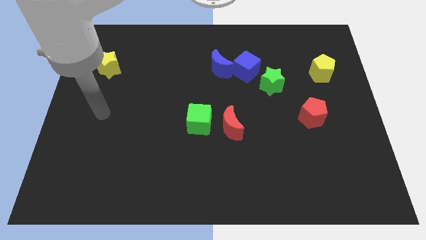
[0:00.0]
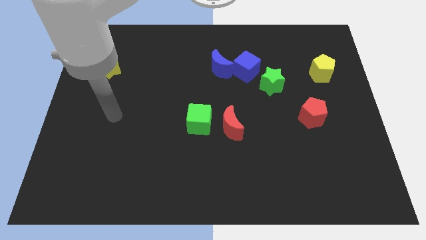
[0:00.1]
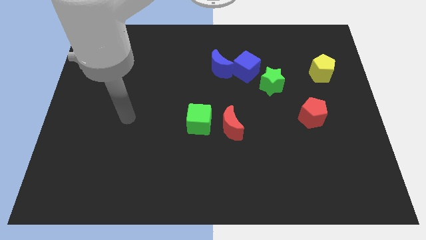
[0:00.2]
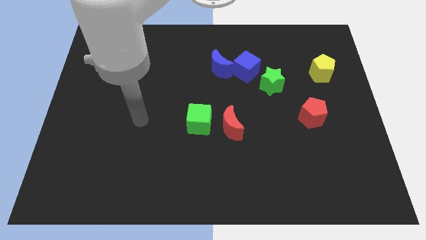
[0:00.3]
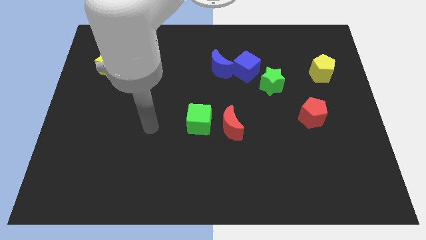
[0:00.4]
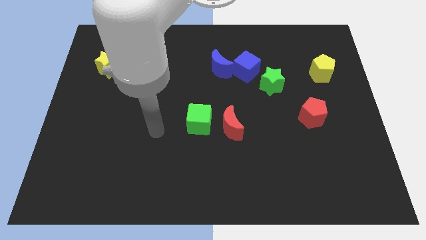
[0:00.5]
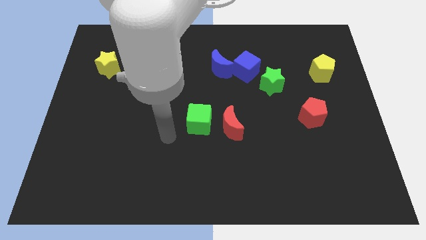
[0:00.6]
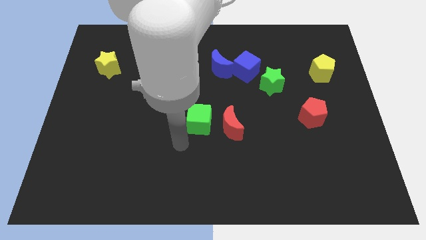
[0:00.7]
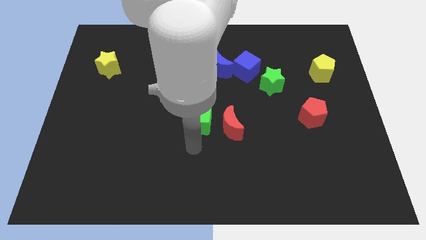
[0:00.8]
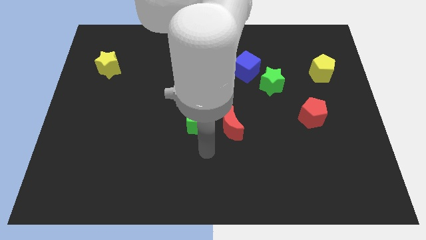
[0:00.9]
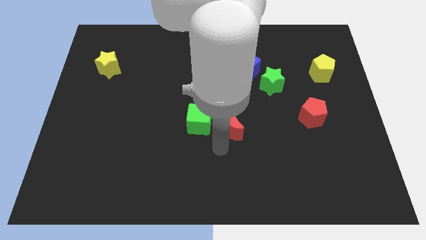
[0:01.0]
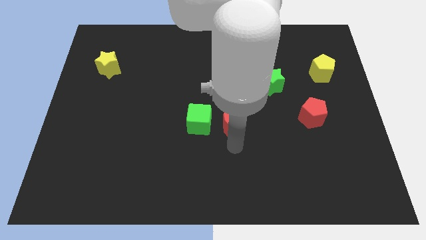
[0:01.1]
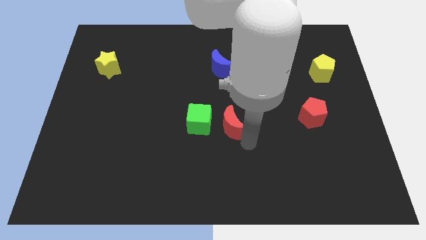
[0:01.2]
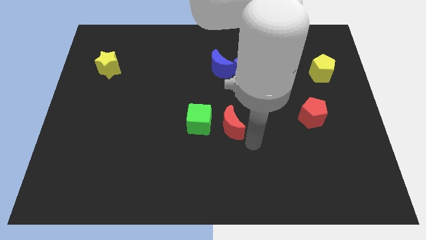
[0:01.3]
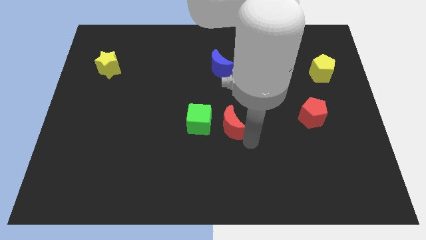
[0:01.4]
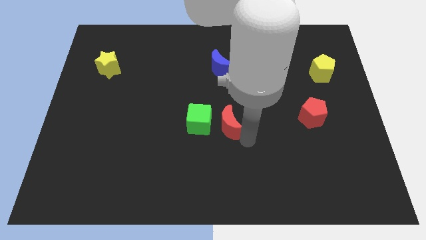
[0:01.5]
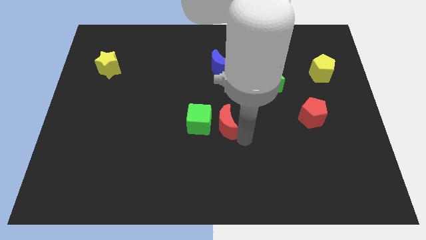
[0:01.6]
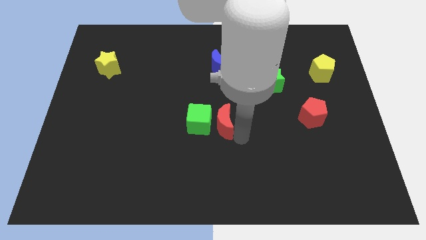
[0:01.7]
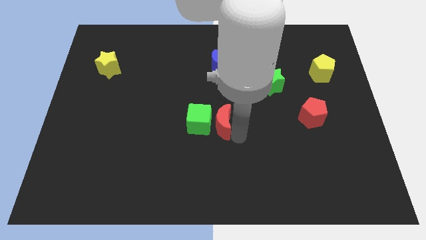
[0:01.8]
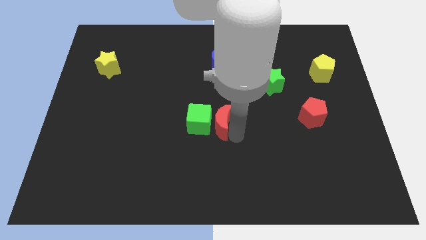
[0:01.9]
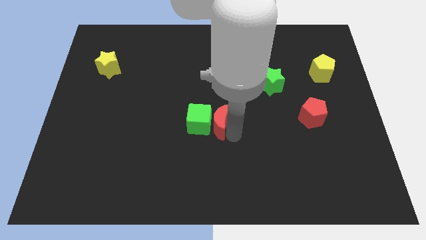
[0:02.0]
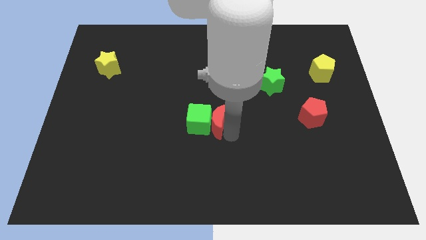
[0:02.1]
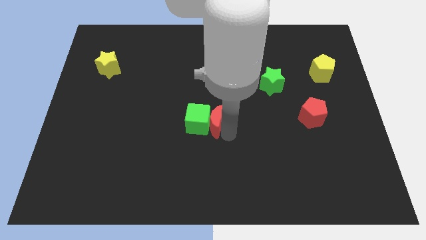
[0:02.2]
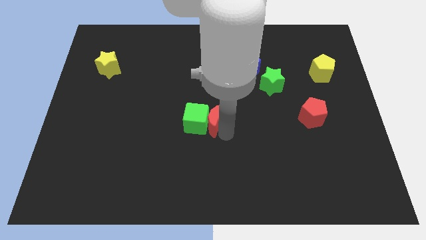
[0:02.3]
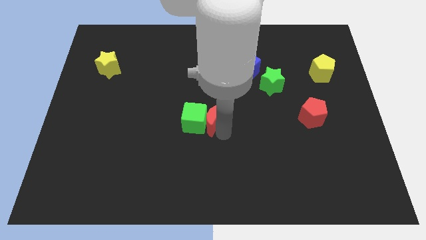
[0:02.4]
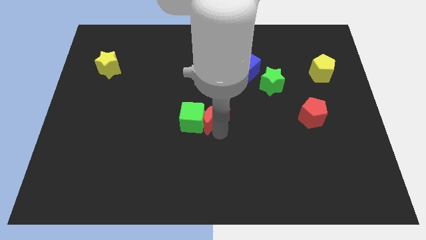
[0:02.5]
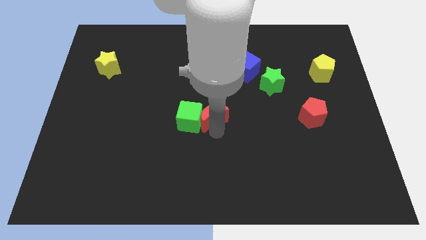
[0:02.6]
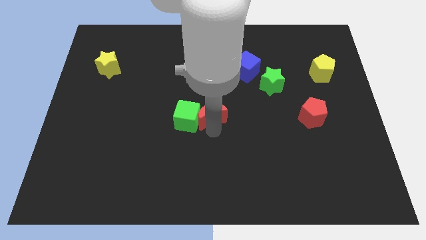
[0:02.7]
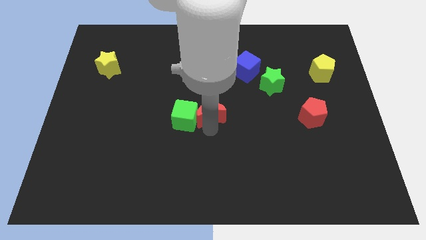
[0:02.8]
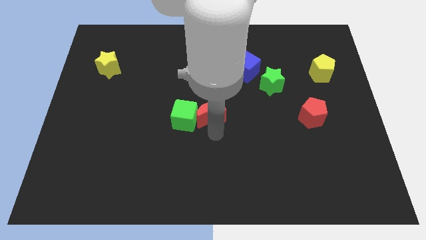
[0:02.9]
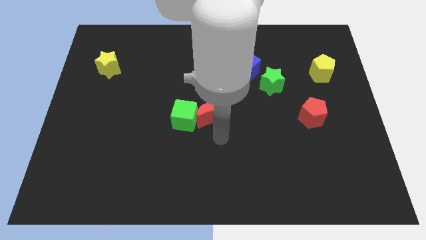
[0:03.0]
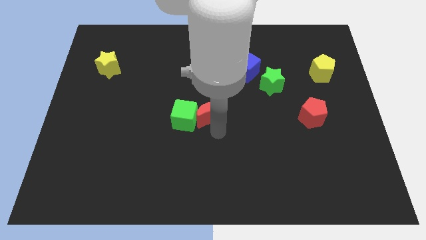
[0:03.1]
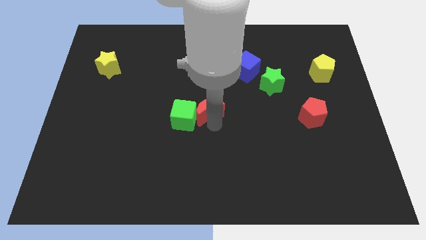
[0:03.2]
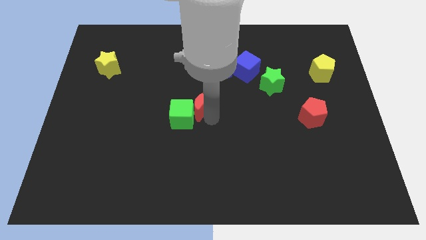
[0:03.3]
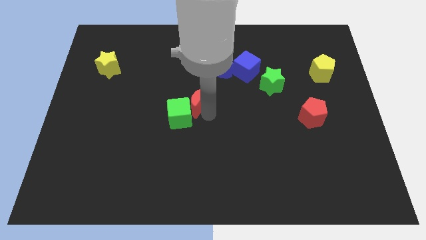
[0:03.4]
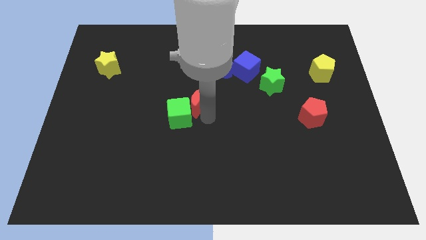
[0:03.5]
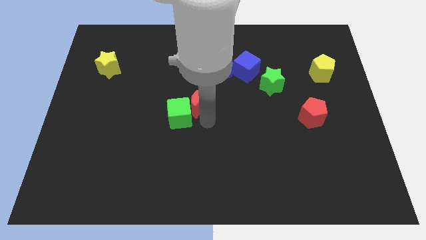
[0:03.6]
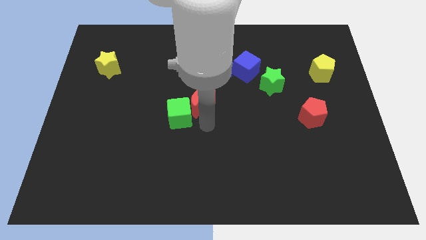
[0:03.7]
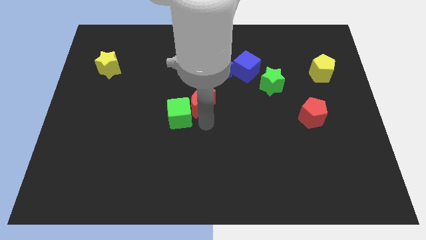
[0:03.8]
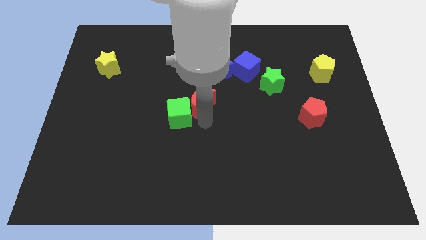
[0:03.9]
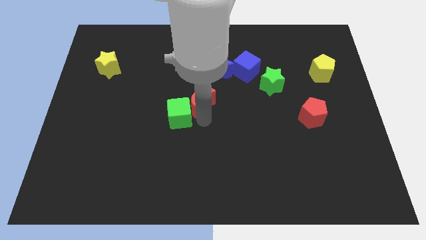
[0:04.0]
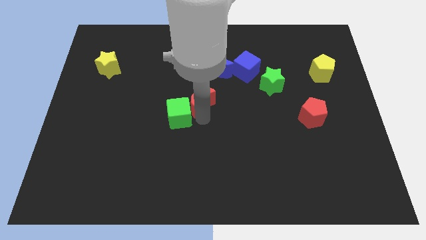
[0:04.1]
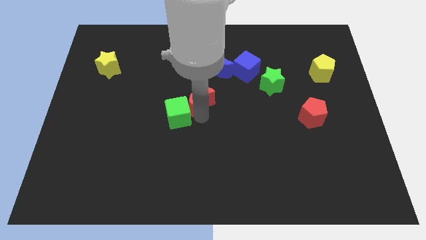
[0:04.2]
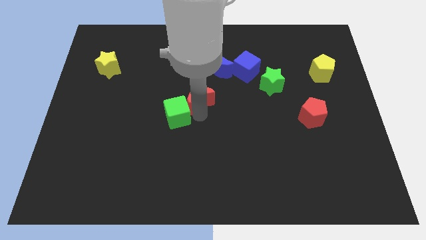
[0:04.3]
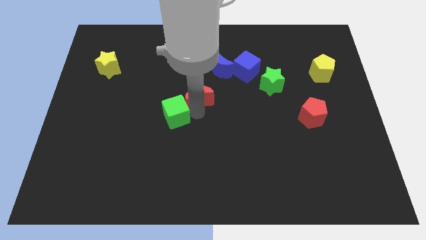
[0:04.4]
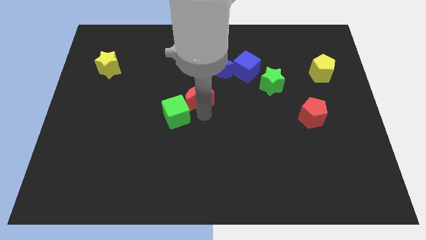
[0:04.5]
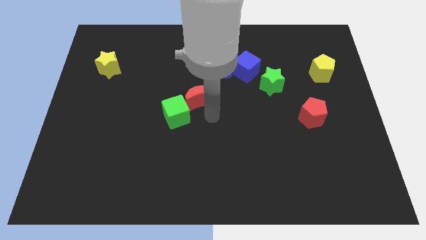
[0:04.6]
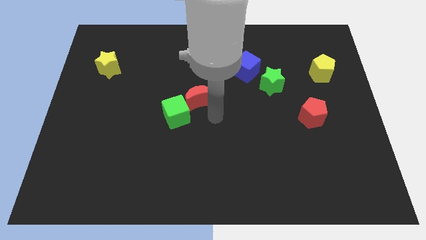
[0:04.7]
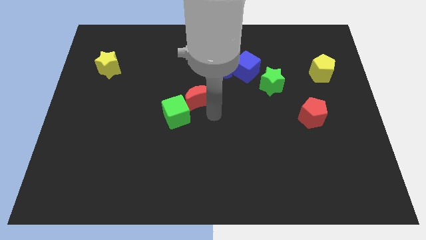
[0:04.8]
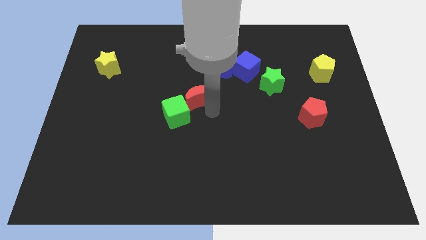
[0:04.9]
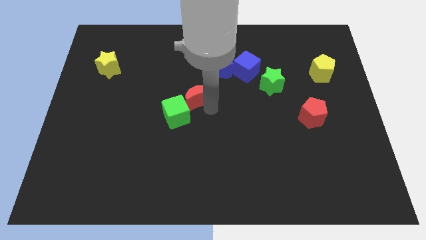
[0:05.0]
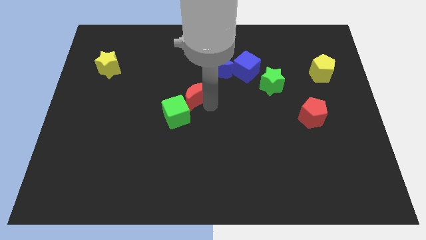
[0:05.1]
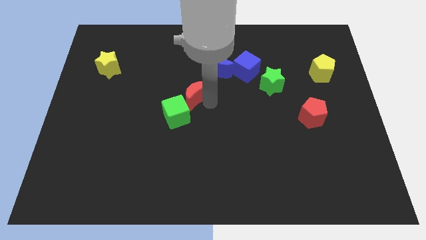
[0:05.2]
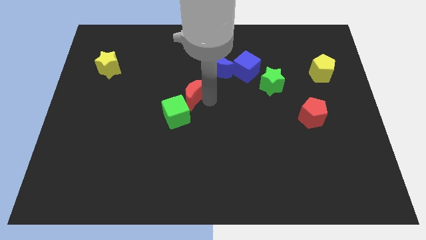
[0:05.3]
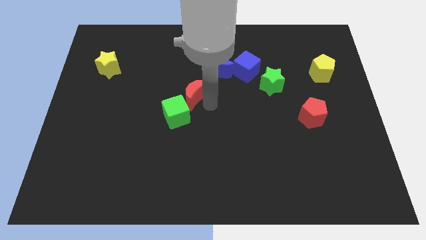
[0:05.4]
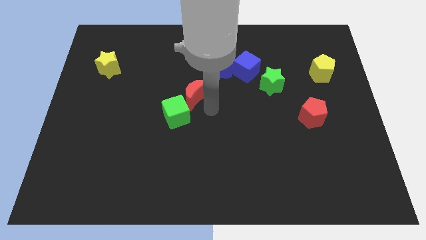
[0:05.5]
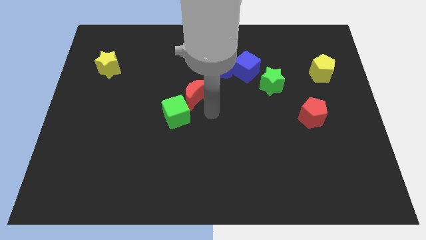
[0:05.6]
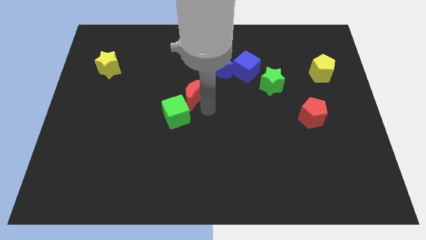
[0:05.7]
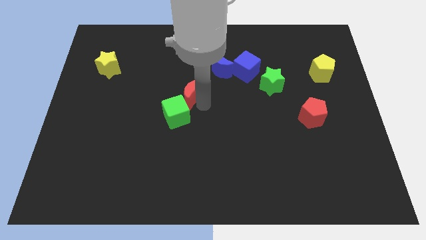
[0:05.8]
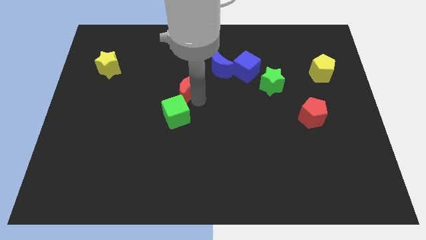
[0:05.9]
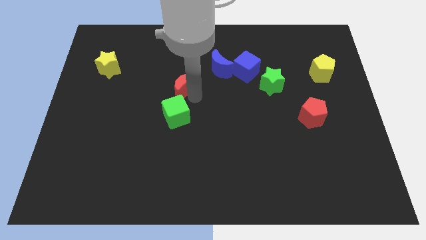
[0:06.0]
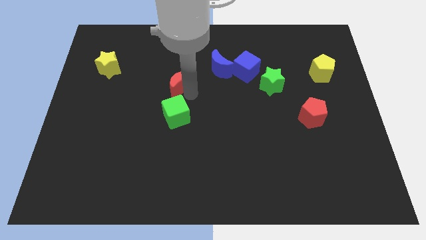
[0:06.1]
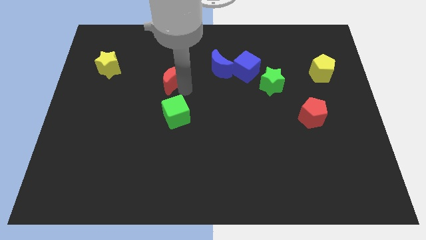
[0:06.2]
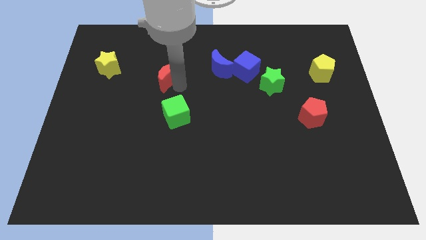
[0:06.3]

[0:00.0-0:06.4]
slide the red moon up and to the left diagonally

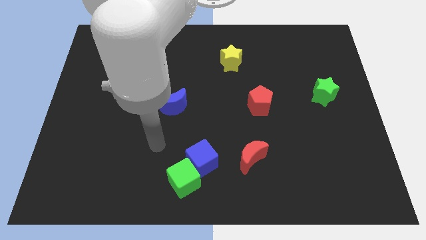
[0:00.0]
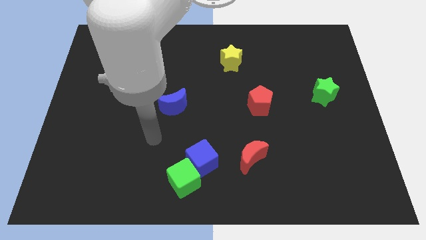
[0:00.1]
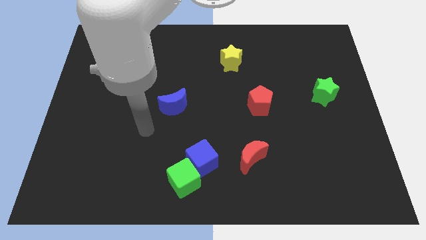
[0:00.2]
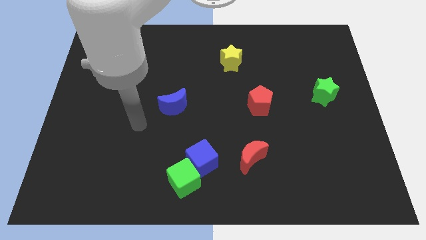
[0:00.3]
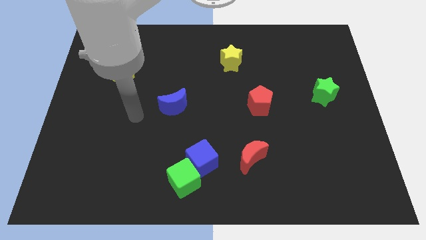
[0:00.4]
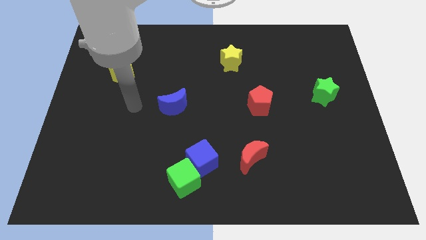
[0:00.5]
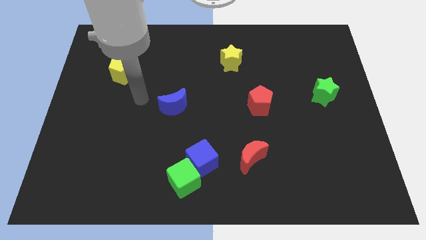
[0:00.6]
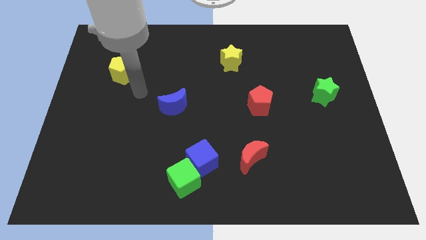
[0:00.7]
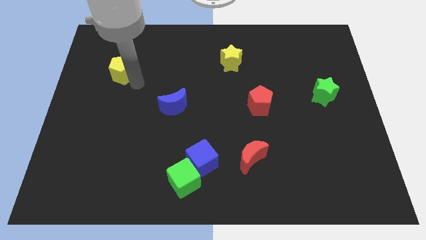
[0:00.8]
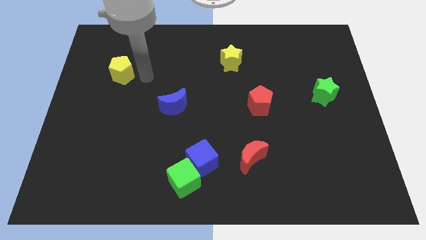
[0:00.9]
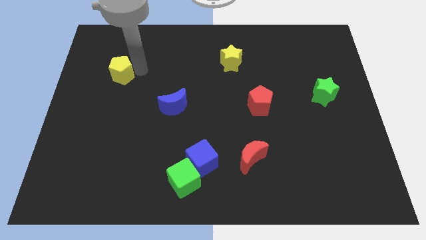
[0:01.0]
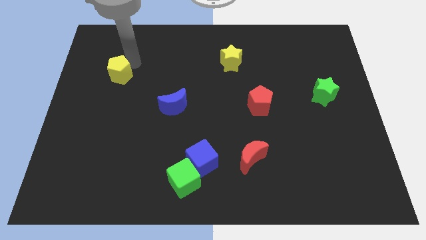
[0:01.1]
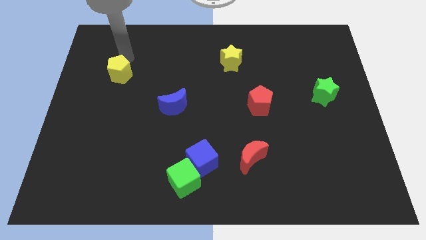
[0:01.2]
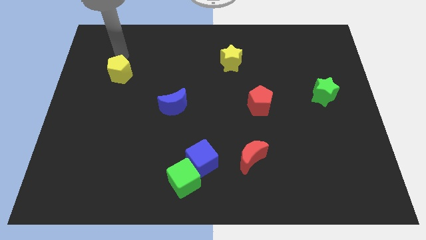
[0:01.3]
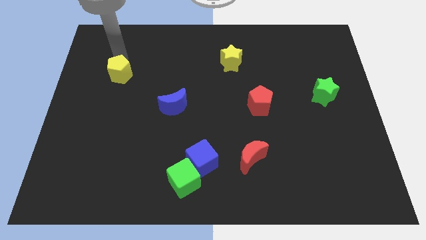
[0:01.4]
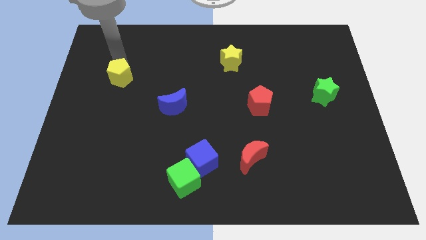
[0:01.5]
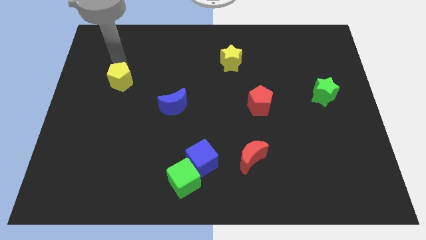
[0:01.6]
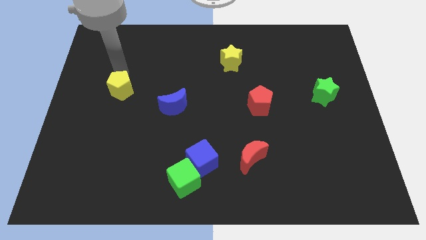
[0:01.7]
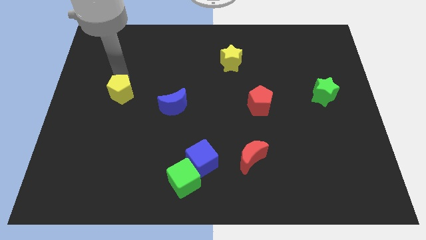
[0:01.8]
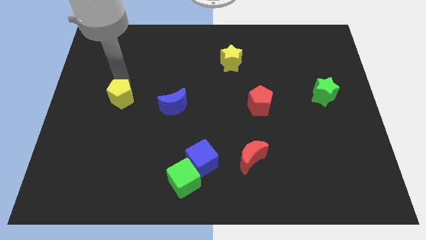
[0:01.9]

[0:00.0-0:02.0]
push the yellow pentagon a bit down
